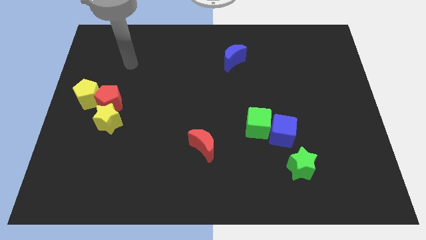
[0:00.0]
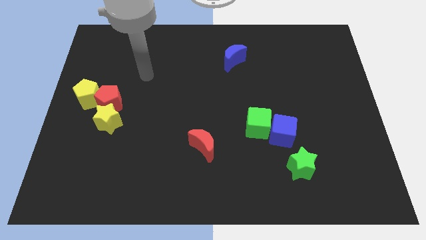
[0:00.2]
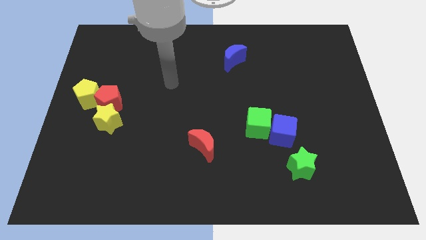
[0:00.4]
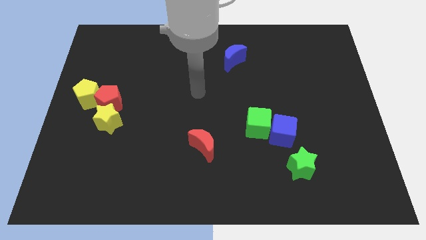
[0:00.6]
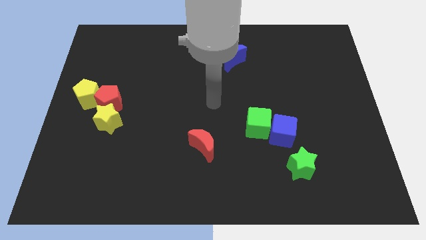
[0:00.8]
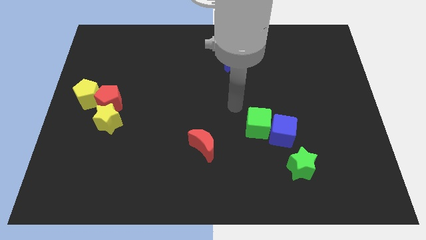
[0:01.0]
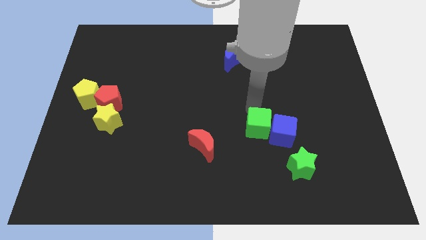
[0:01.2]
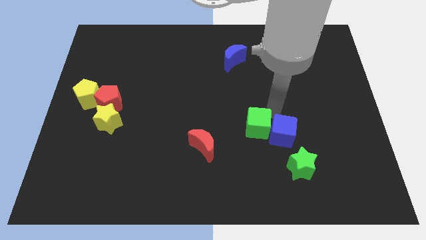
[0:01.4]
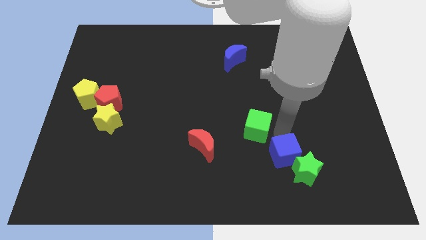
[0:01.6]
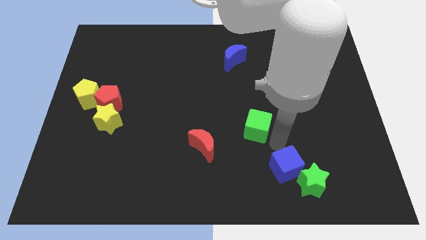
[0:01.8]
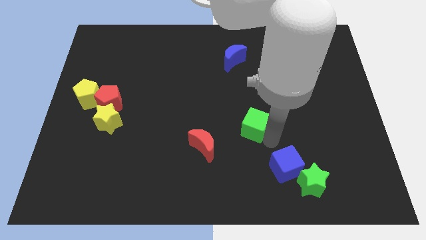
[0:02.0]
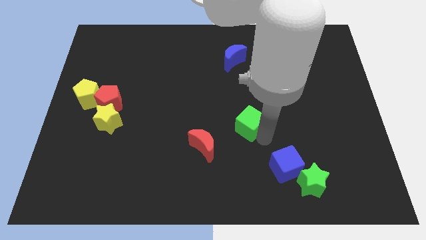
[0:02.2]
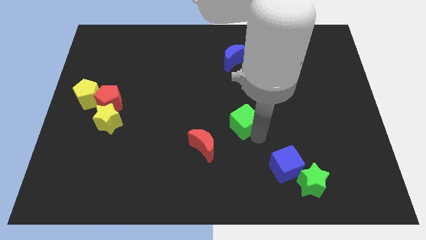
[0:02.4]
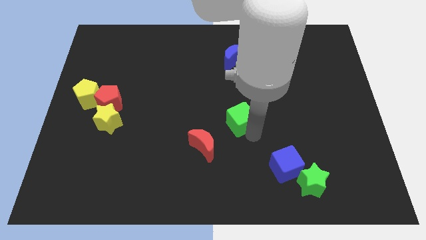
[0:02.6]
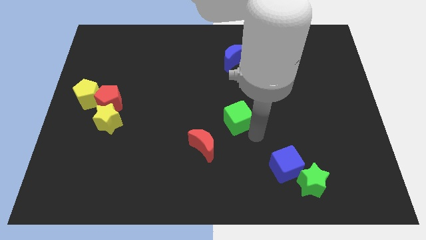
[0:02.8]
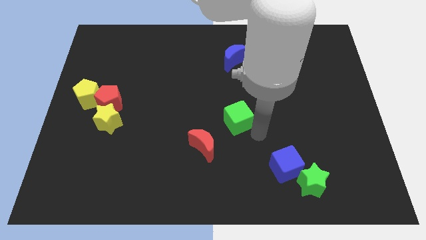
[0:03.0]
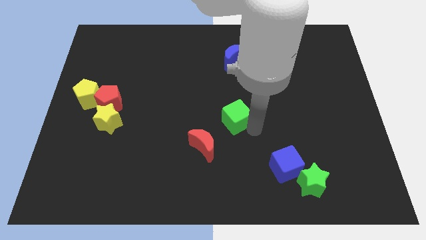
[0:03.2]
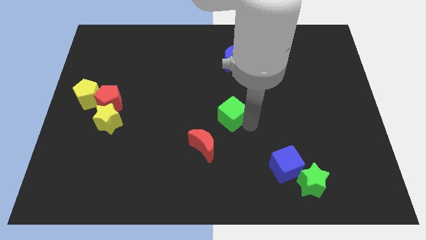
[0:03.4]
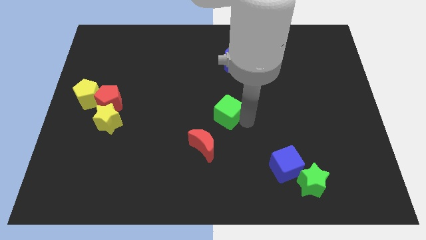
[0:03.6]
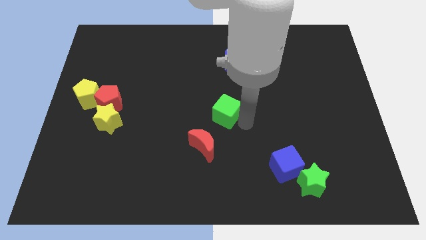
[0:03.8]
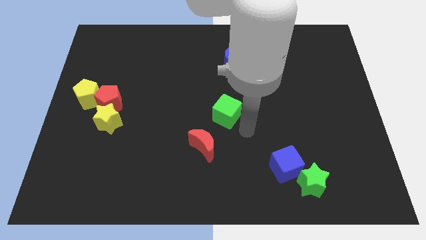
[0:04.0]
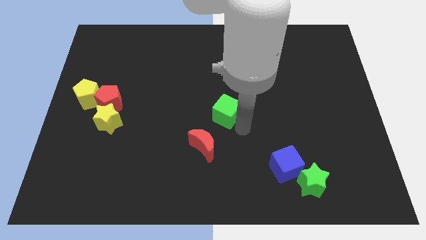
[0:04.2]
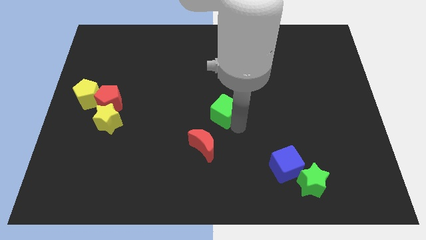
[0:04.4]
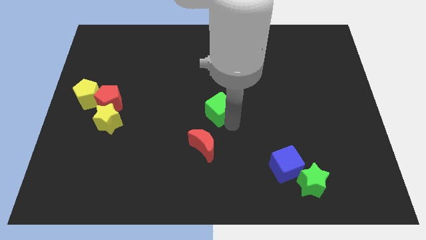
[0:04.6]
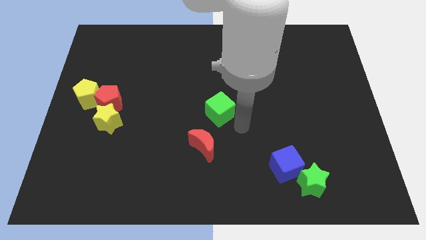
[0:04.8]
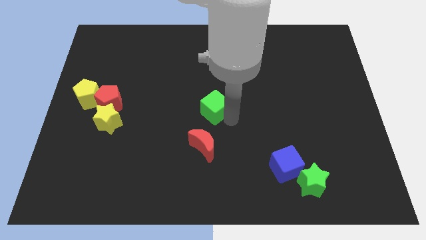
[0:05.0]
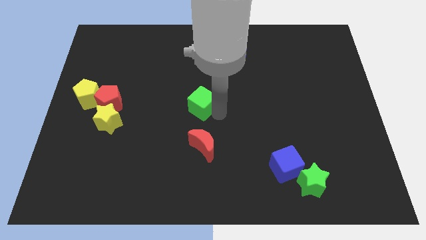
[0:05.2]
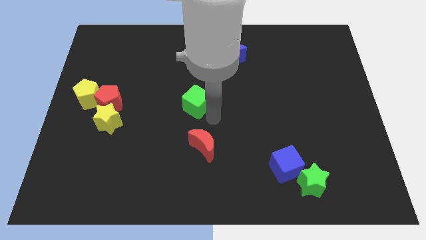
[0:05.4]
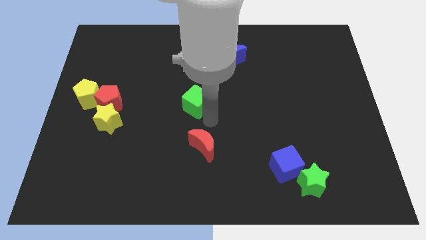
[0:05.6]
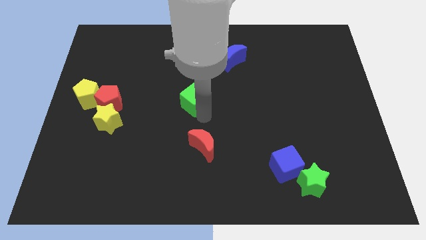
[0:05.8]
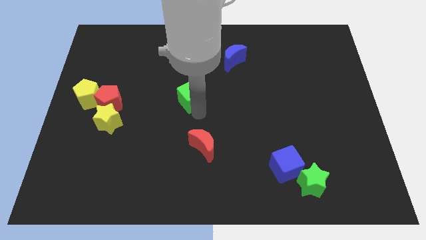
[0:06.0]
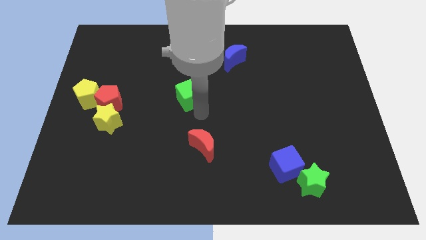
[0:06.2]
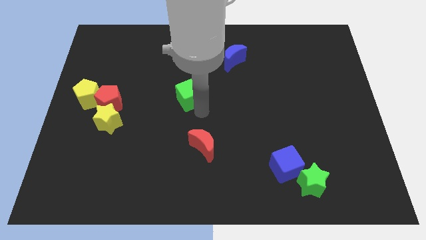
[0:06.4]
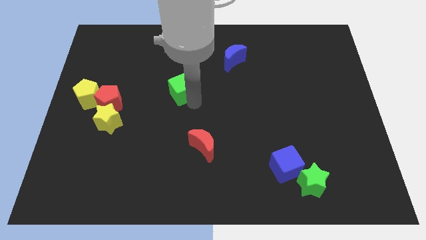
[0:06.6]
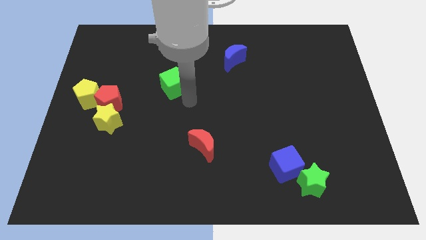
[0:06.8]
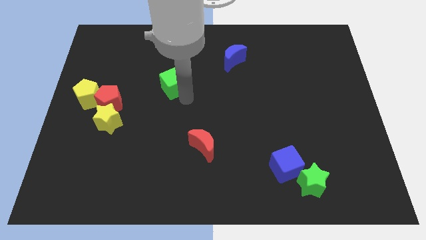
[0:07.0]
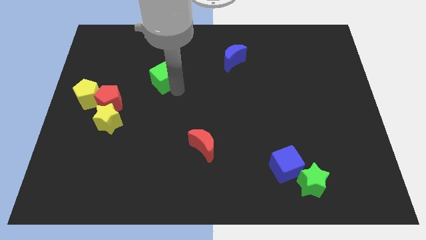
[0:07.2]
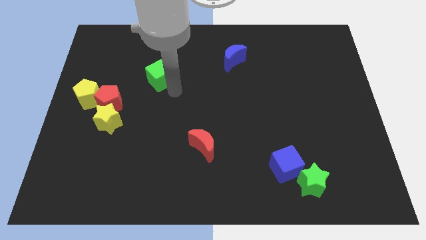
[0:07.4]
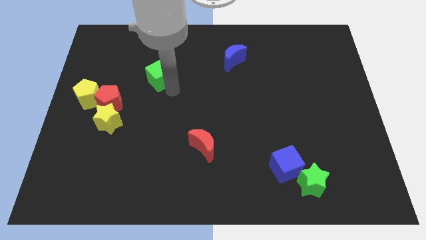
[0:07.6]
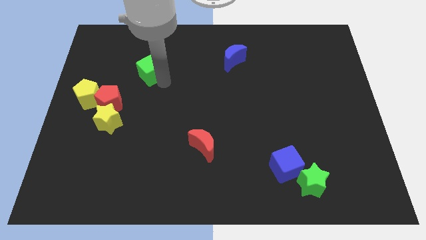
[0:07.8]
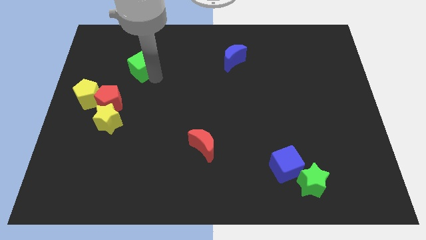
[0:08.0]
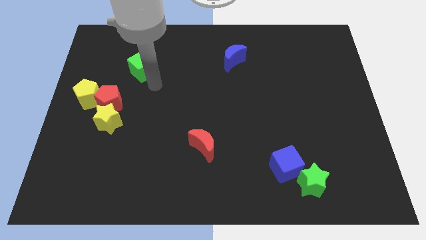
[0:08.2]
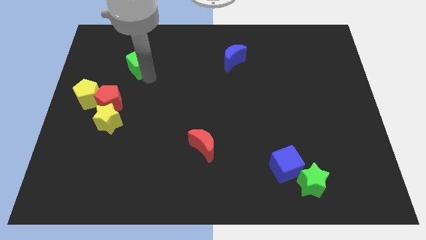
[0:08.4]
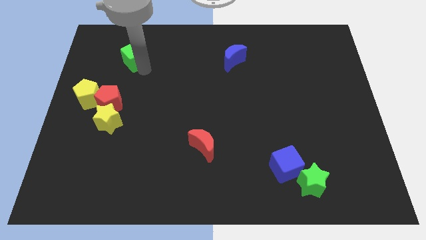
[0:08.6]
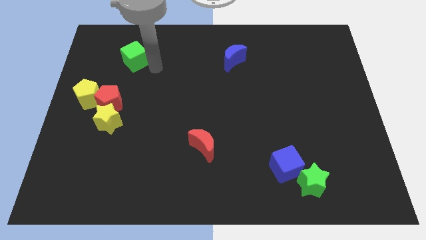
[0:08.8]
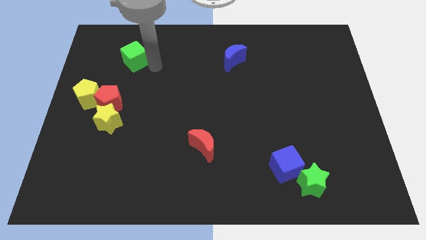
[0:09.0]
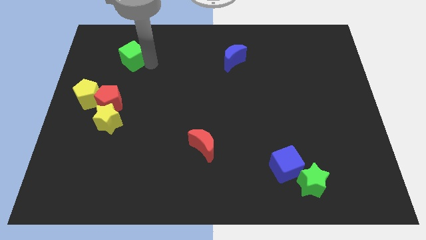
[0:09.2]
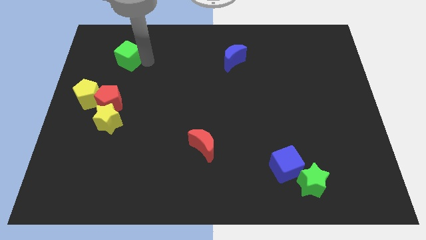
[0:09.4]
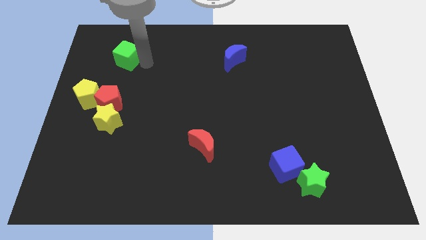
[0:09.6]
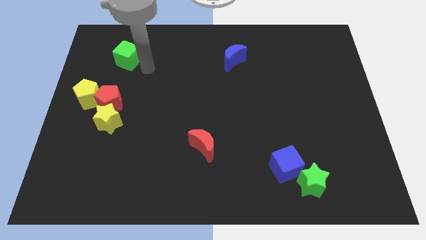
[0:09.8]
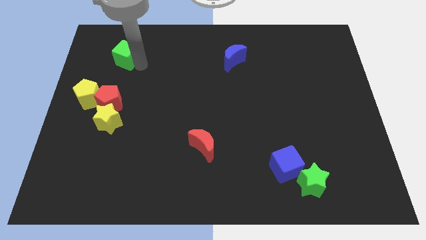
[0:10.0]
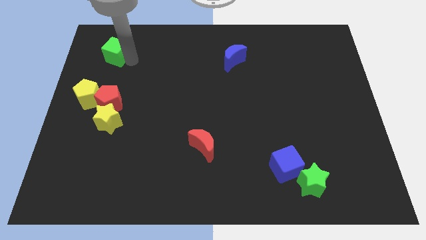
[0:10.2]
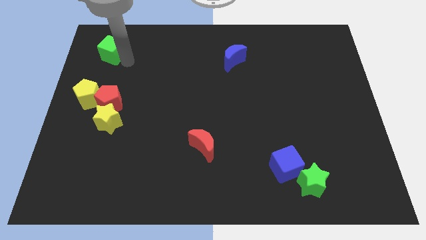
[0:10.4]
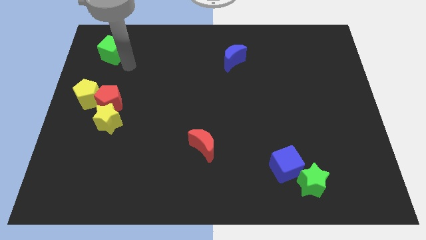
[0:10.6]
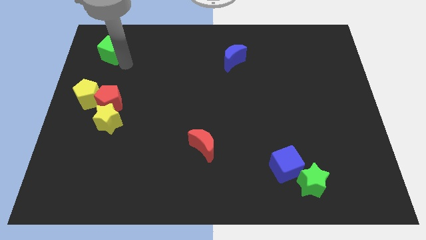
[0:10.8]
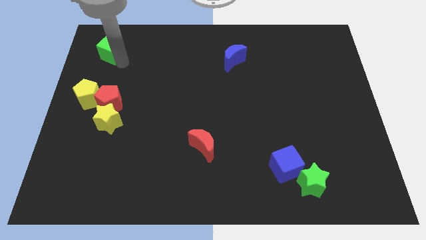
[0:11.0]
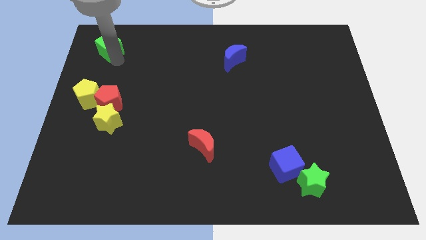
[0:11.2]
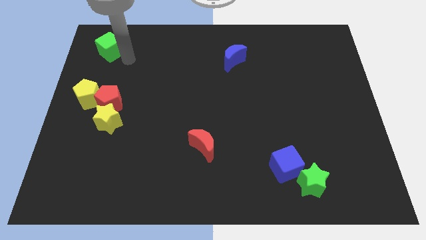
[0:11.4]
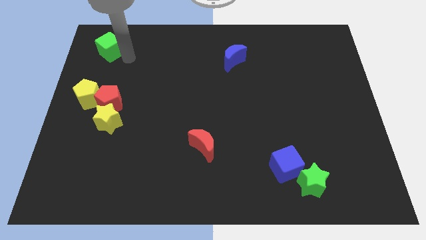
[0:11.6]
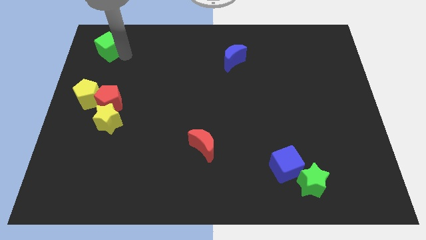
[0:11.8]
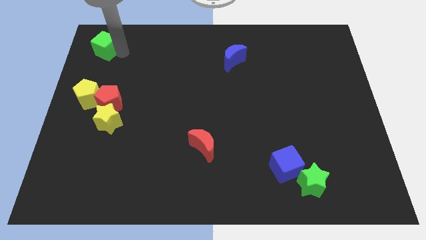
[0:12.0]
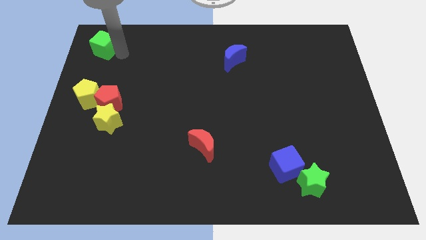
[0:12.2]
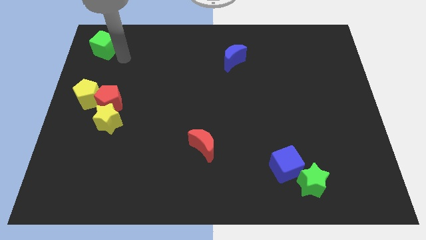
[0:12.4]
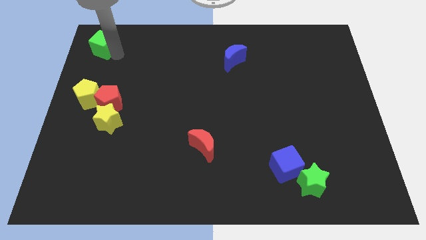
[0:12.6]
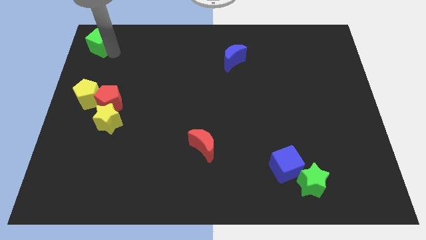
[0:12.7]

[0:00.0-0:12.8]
slide the green cube to the top left
